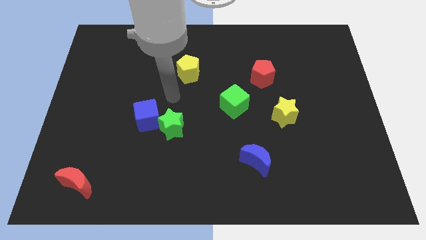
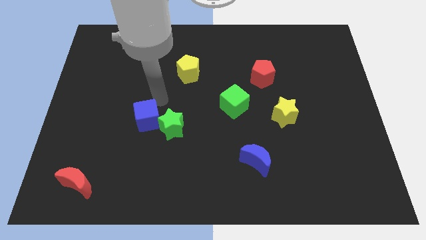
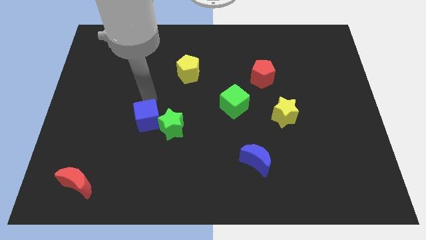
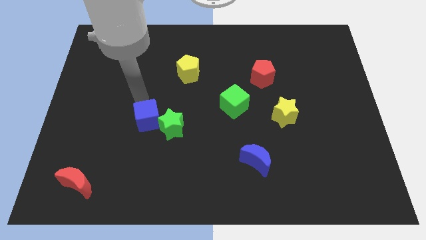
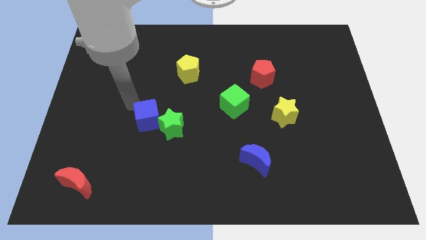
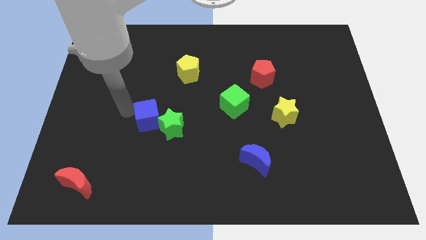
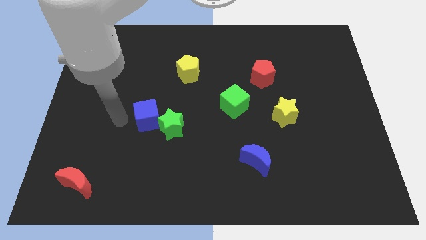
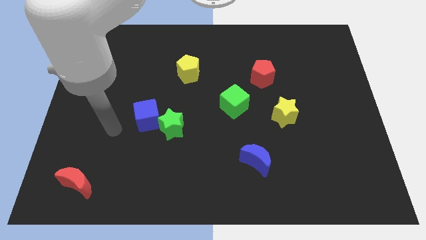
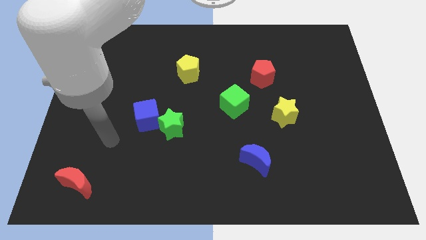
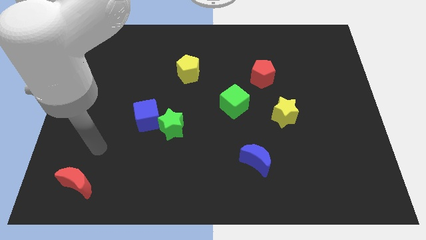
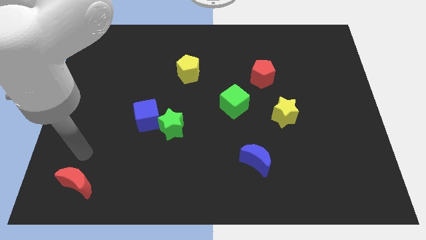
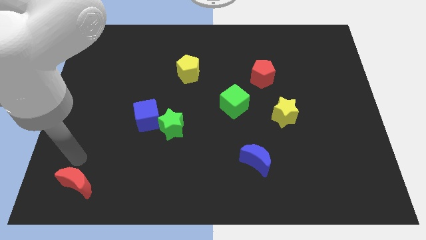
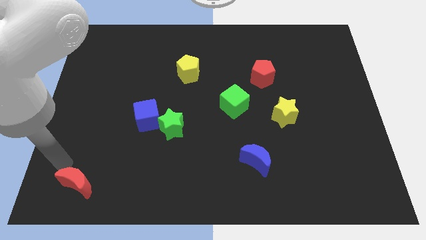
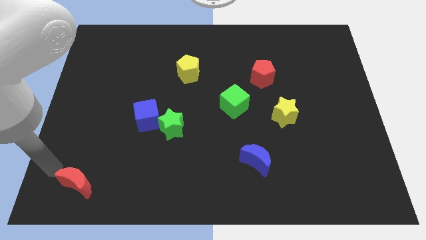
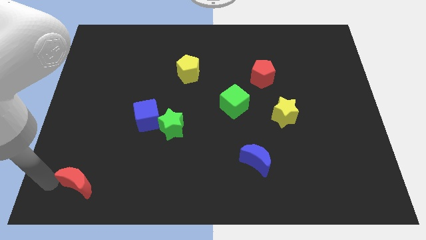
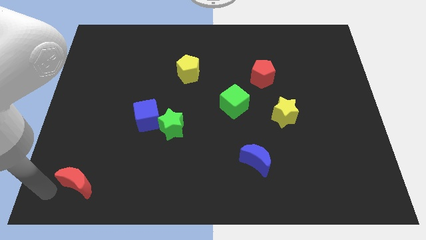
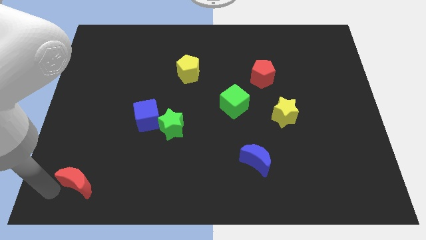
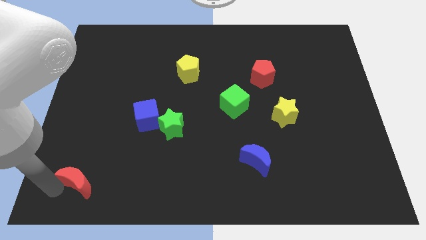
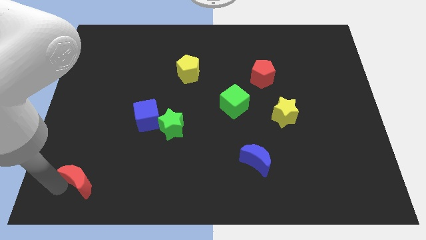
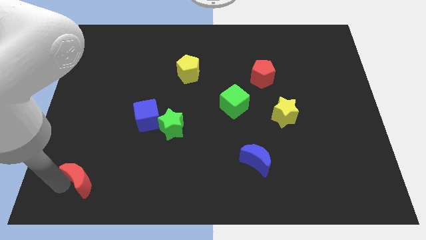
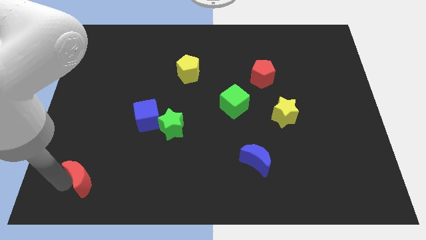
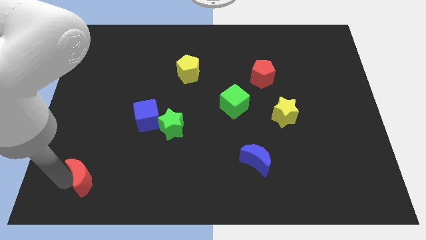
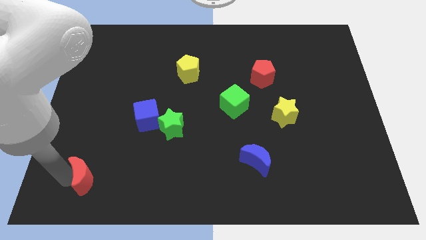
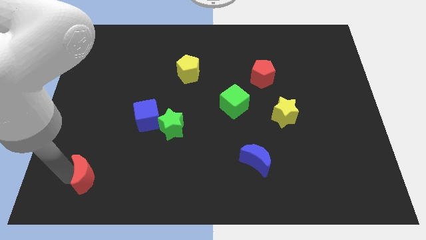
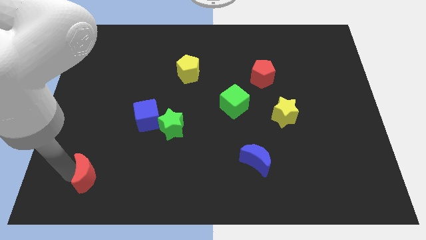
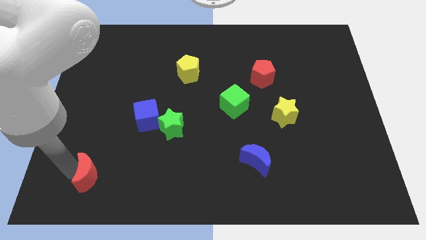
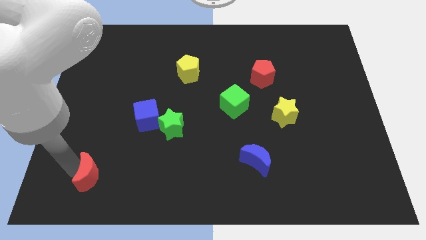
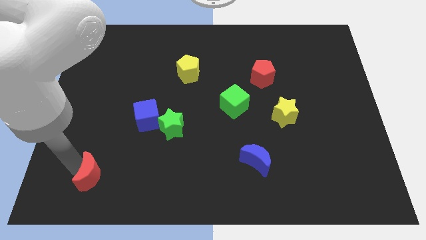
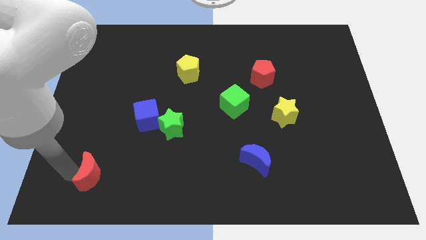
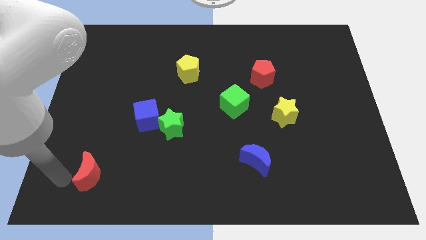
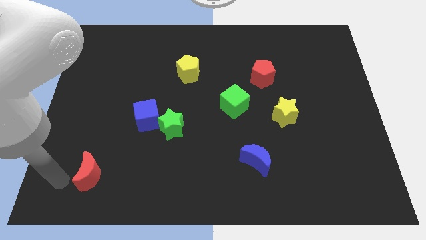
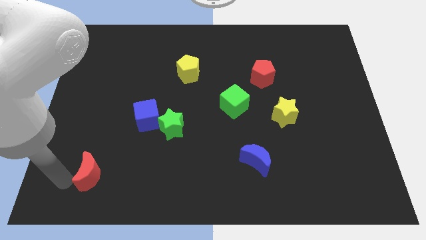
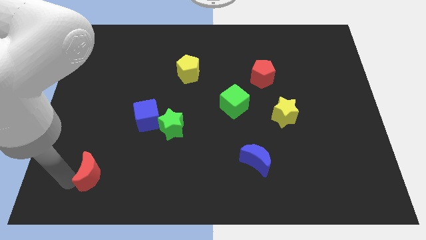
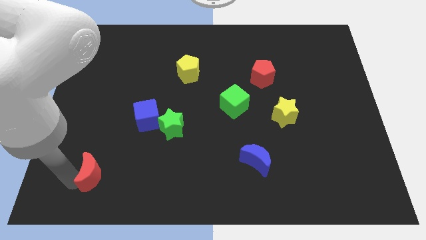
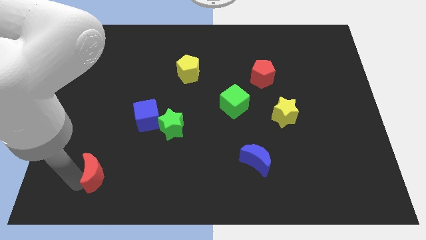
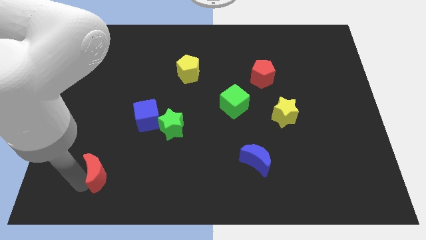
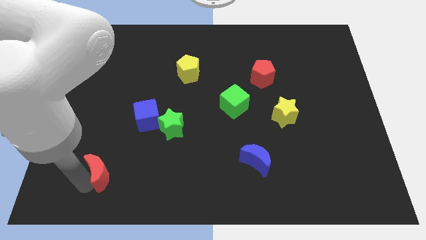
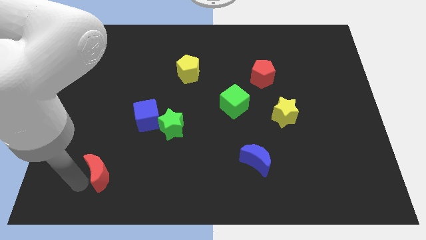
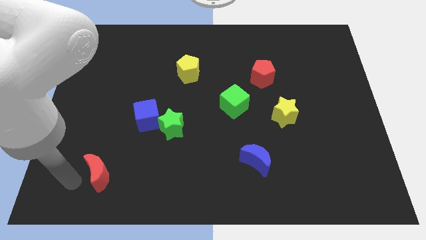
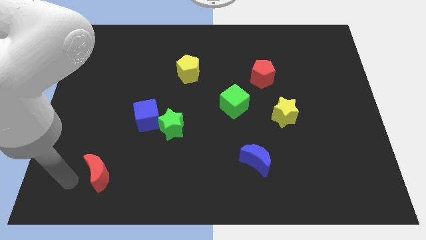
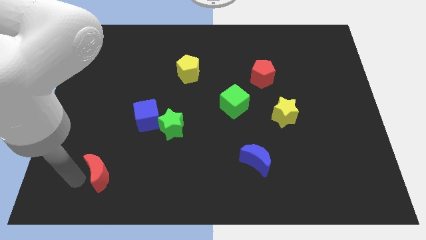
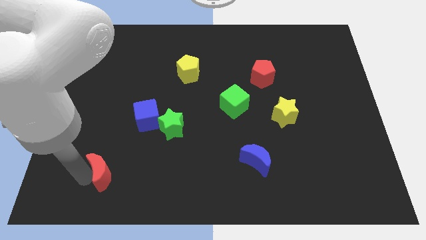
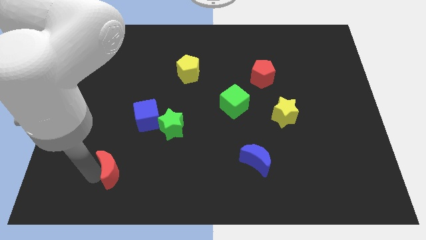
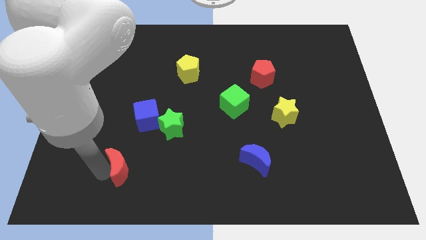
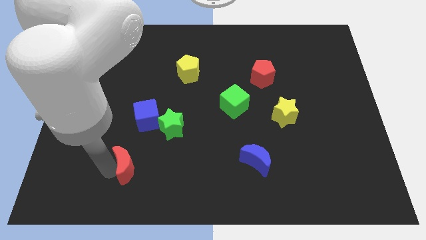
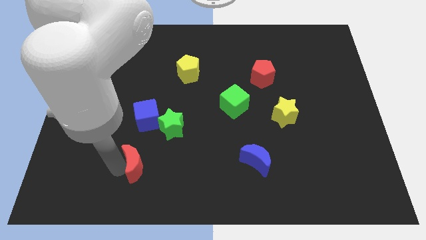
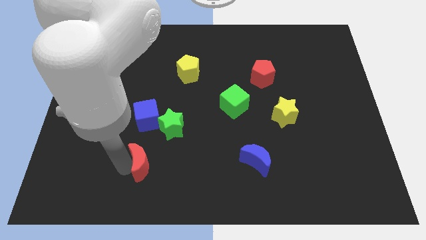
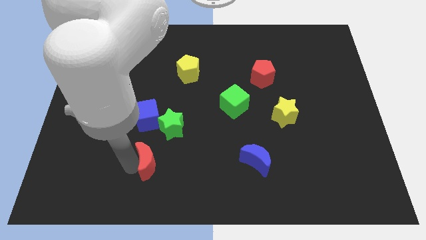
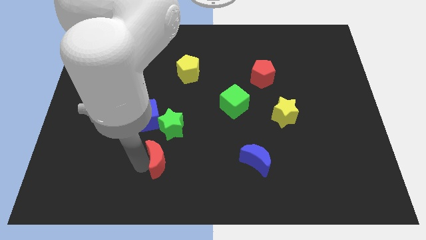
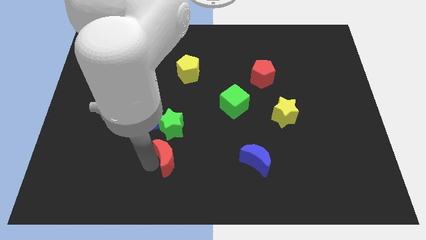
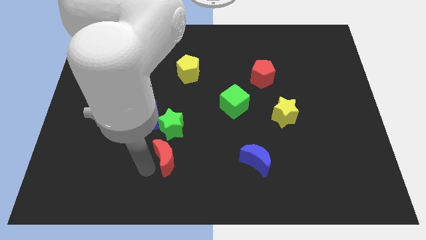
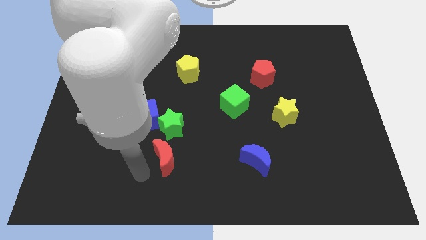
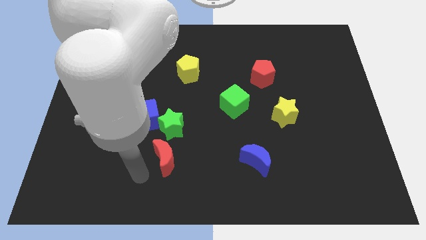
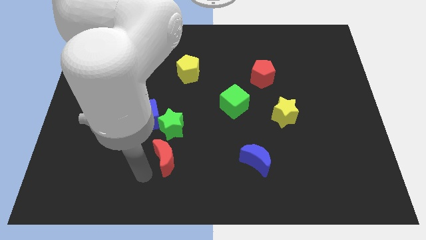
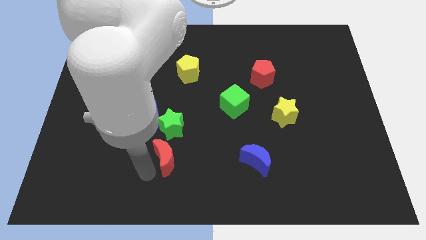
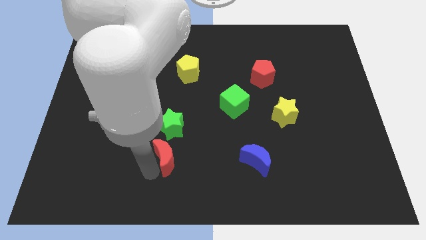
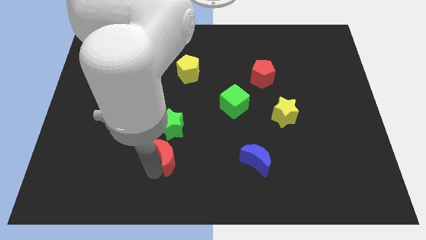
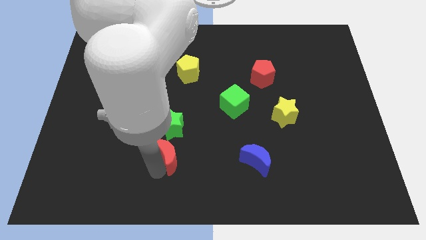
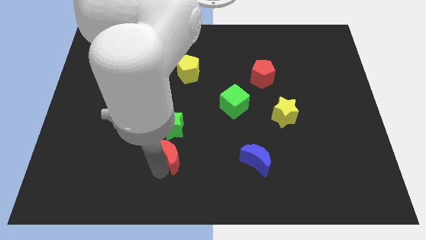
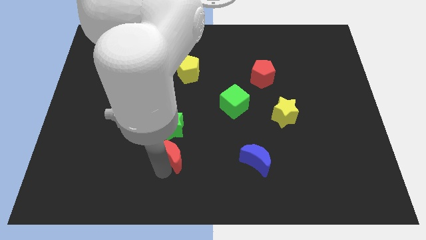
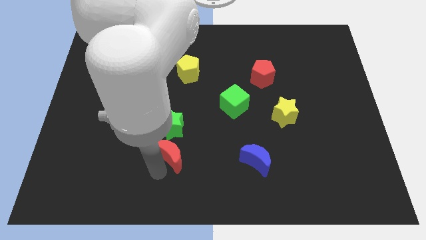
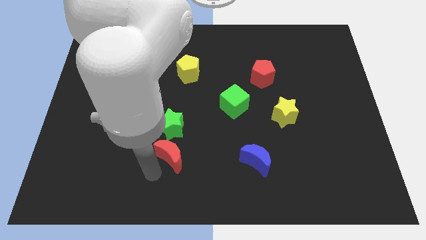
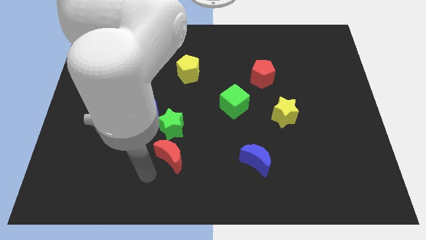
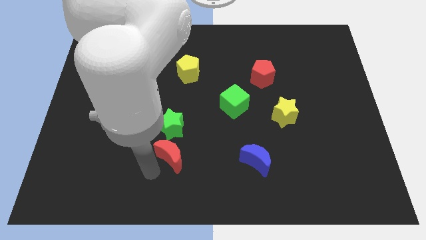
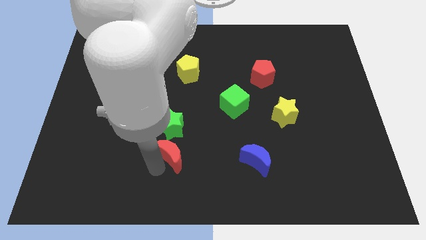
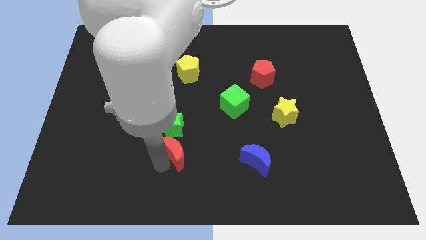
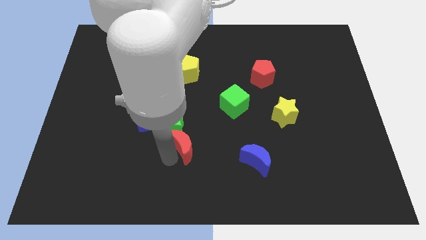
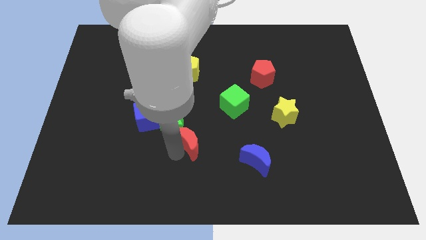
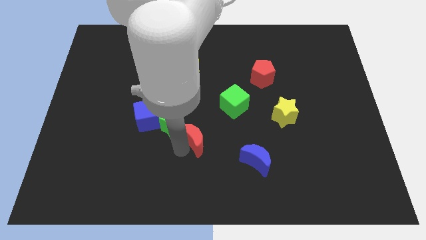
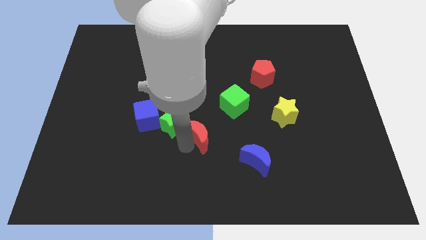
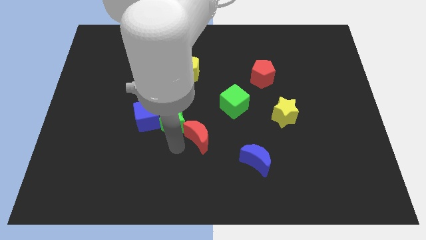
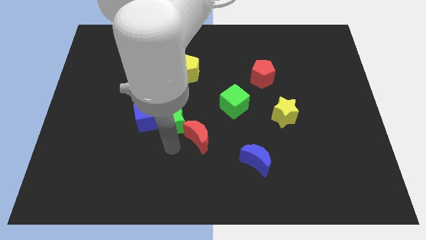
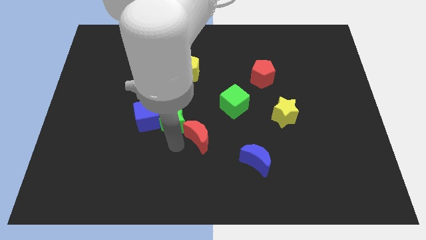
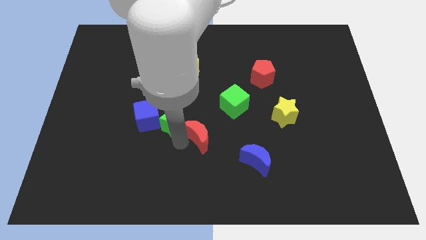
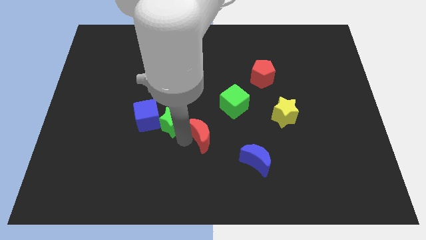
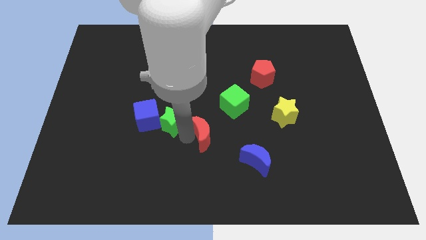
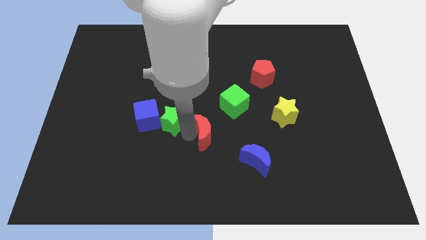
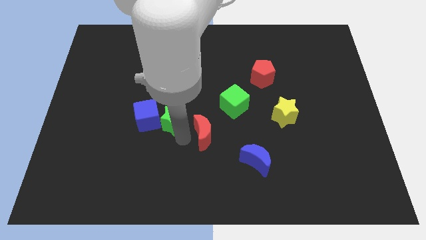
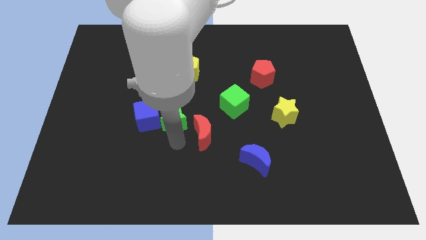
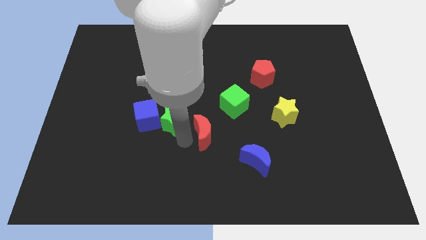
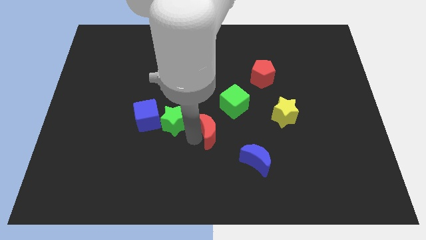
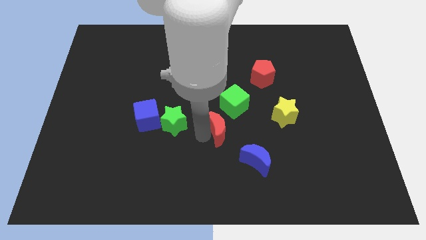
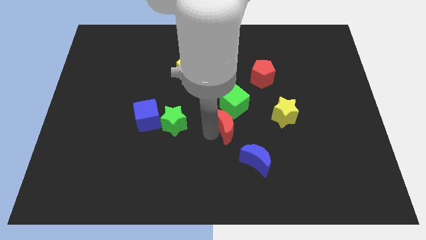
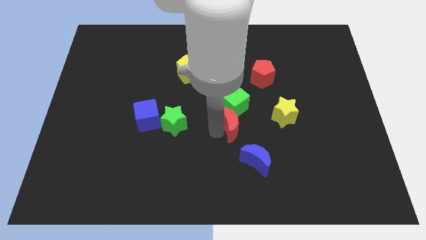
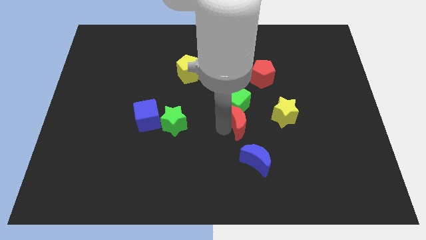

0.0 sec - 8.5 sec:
push the red moon to the bottom right of the green cube
